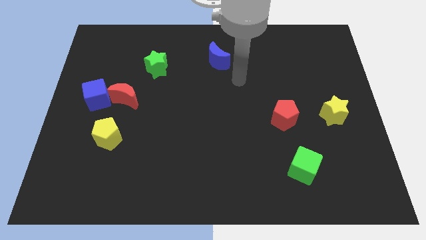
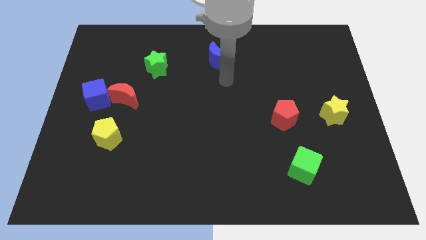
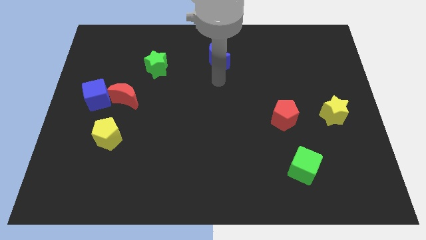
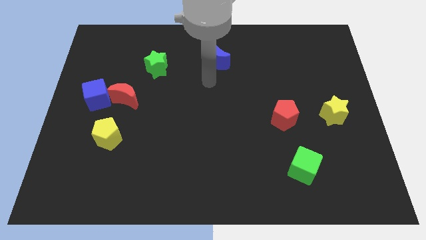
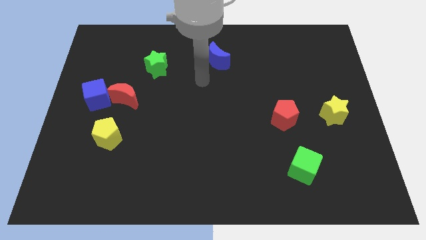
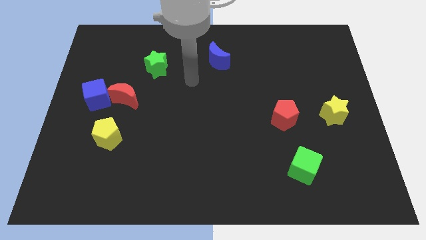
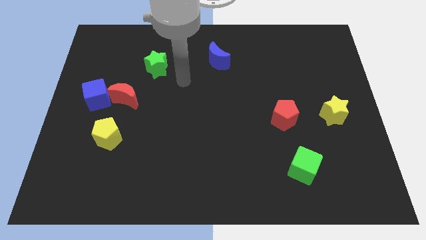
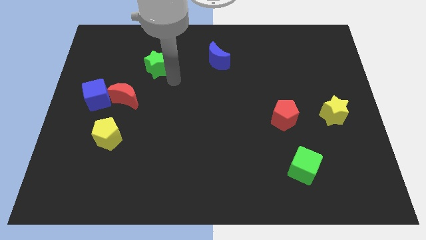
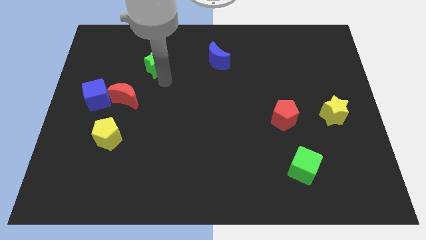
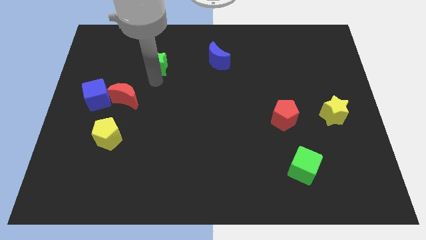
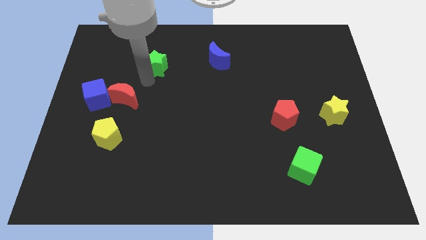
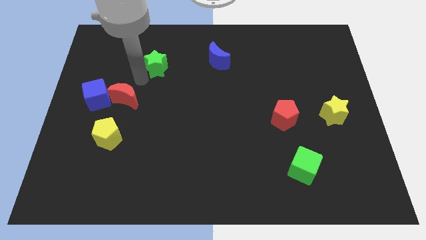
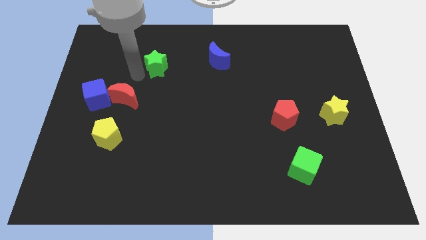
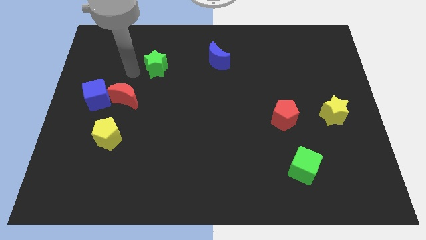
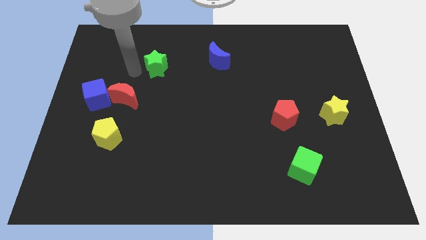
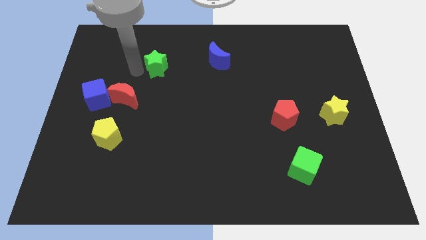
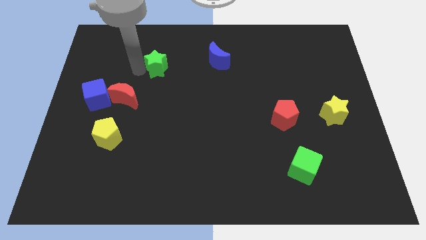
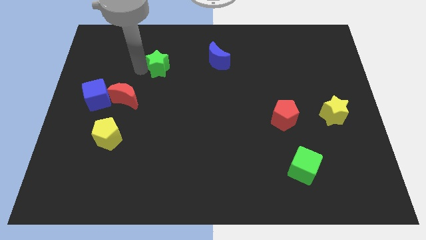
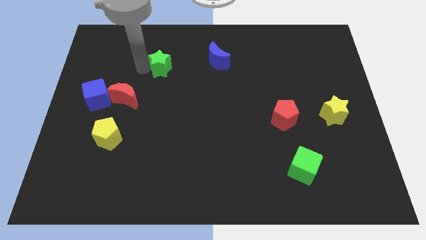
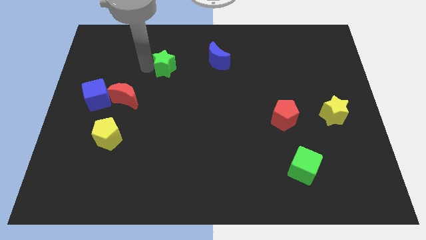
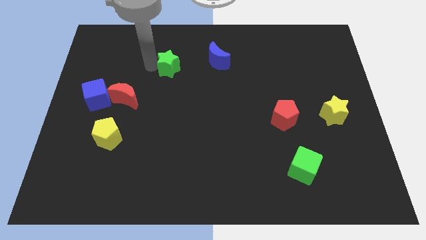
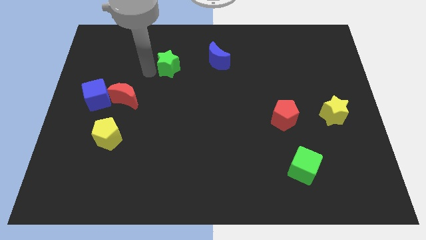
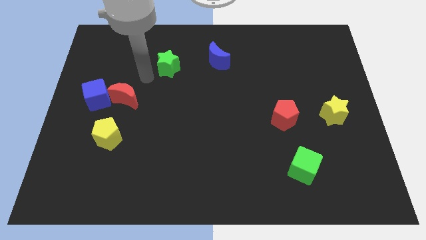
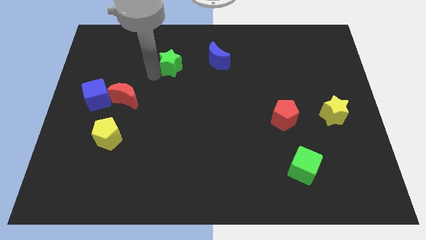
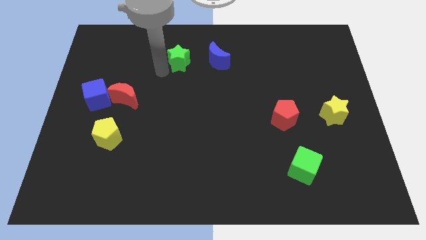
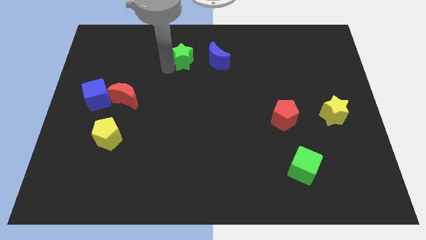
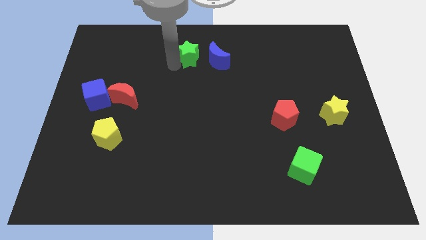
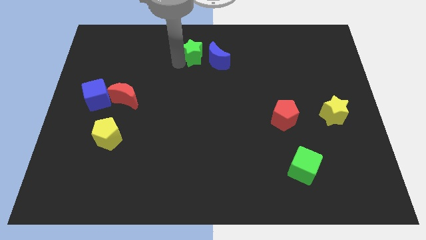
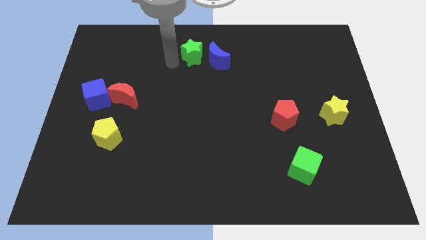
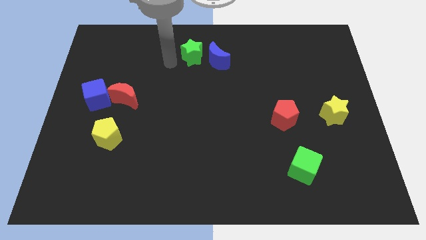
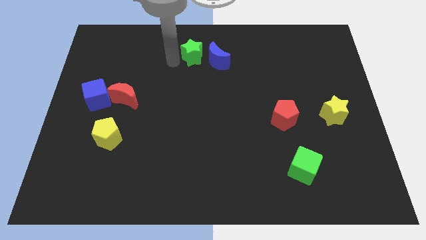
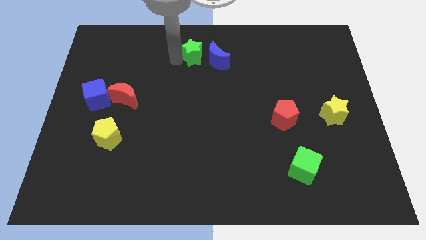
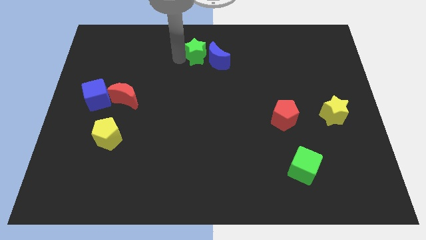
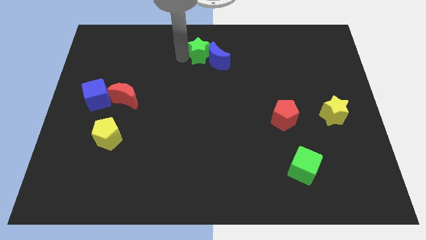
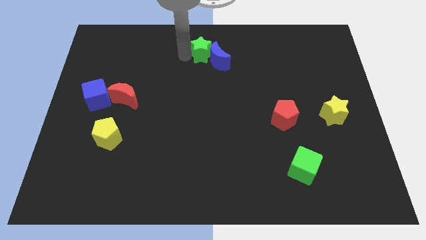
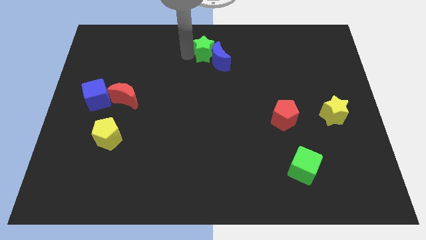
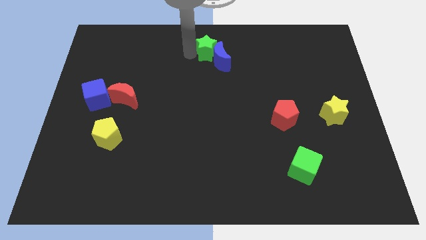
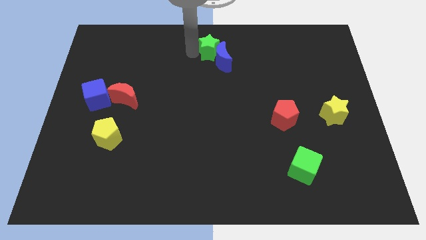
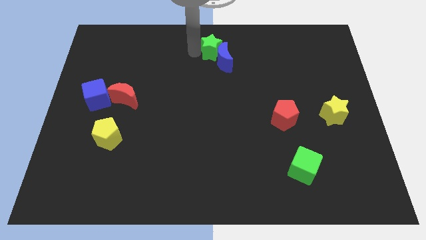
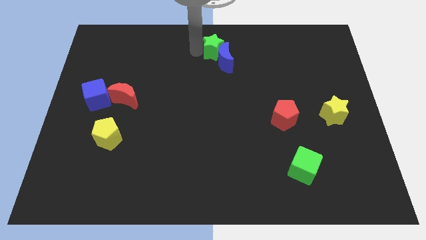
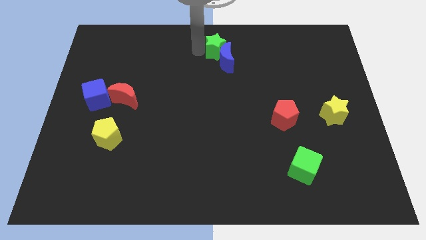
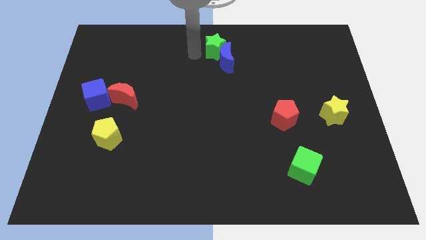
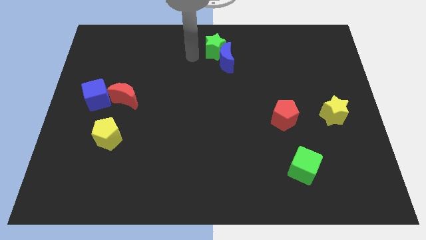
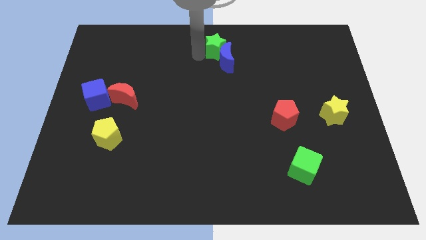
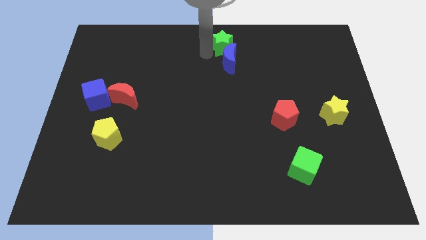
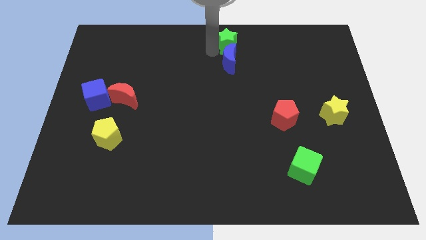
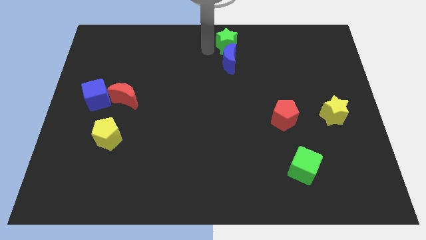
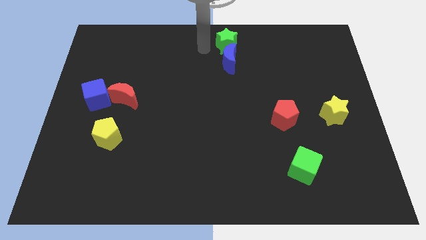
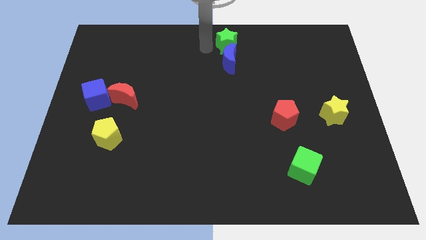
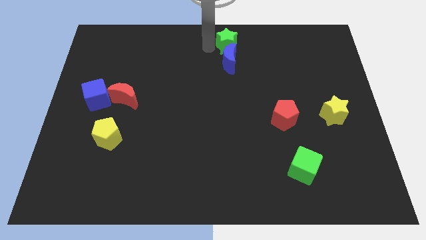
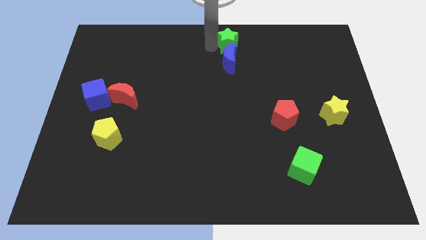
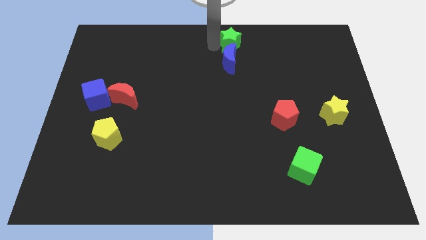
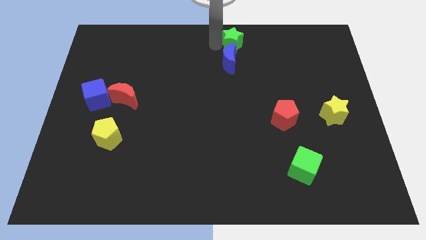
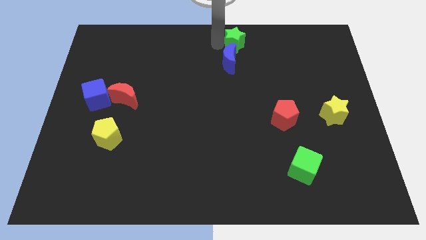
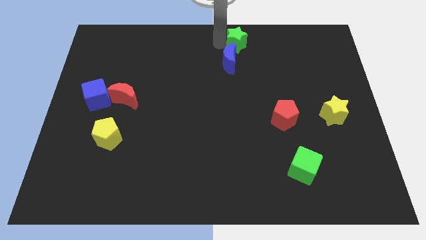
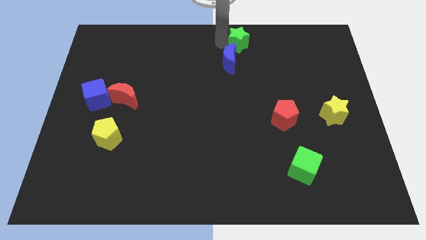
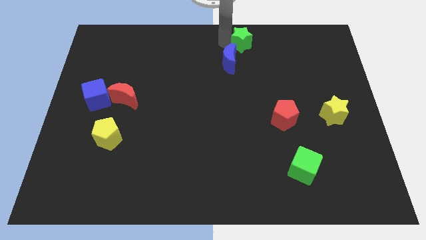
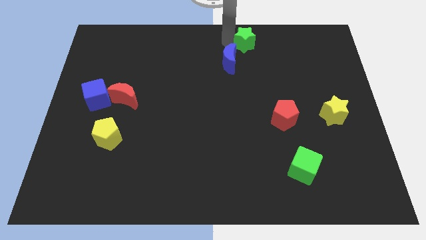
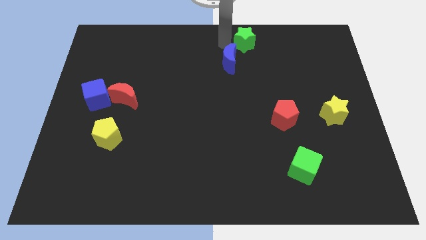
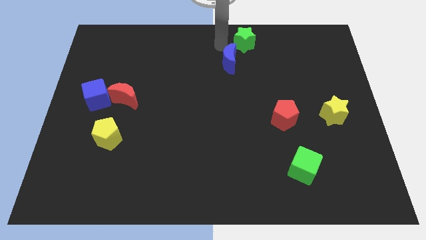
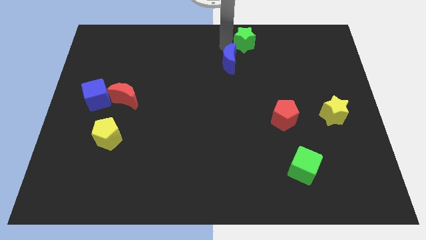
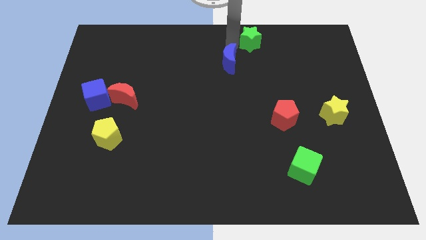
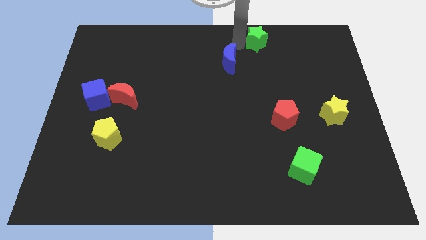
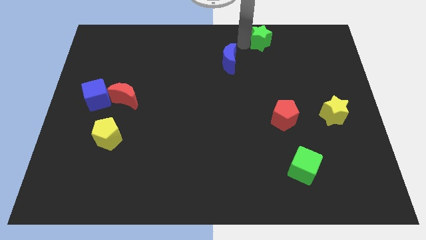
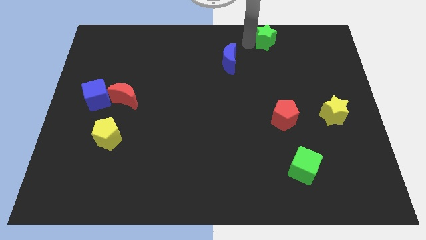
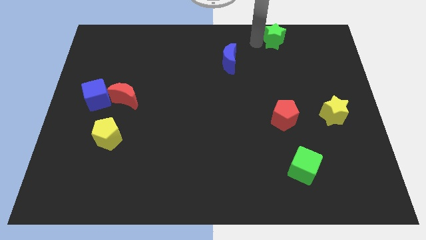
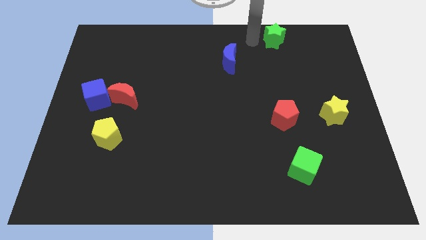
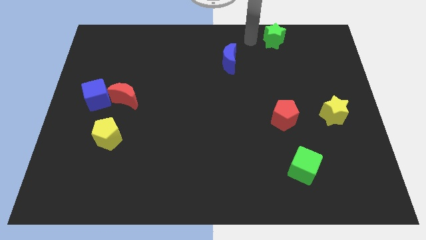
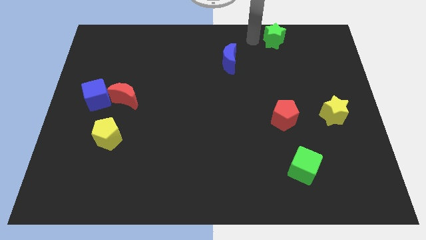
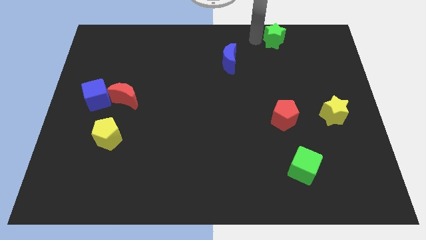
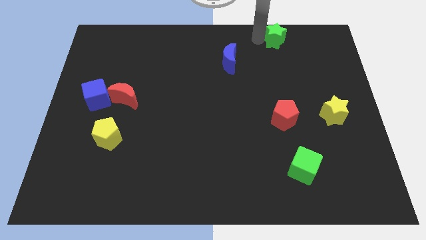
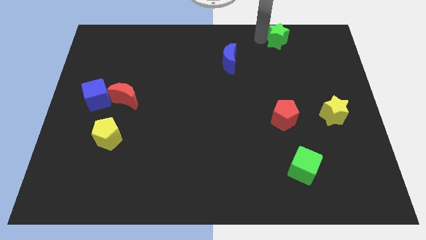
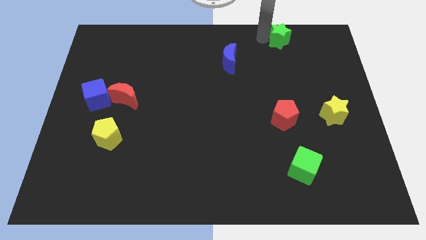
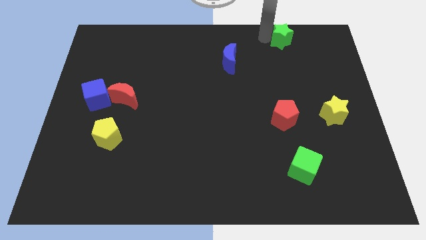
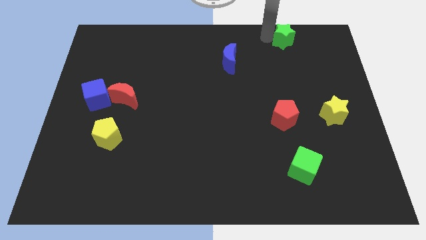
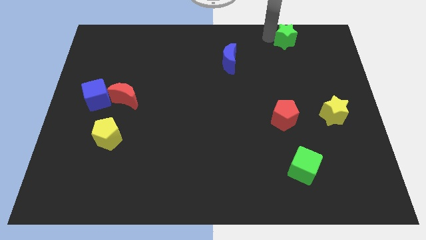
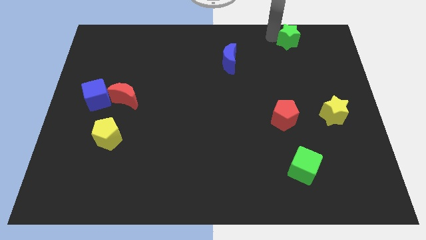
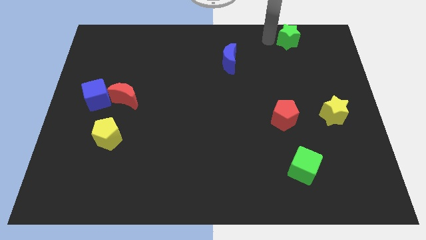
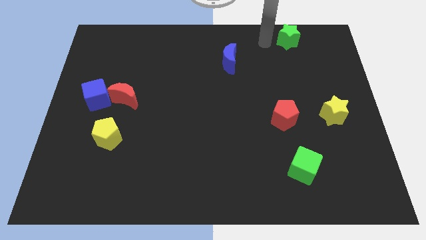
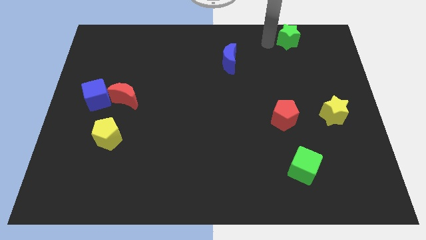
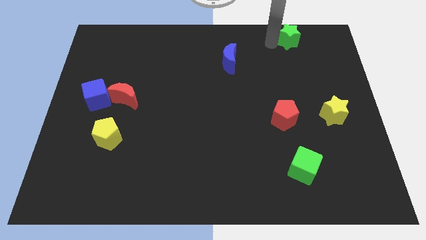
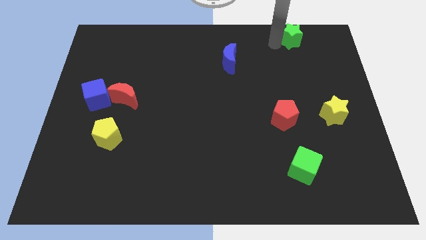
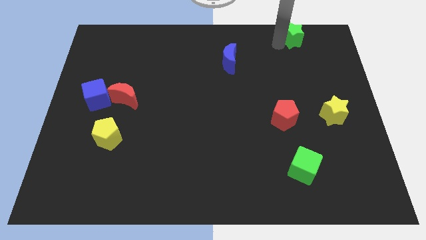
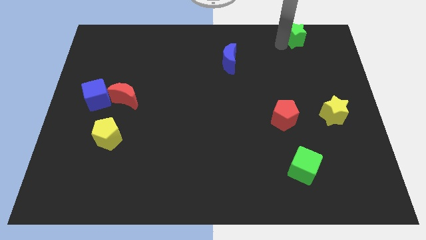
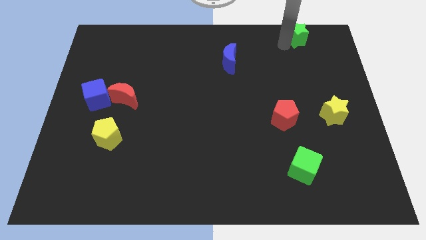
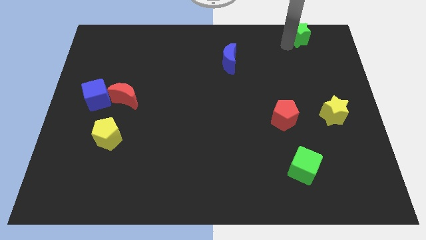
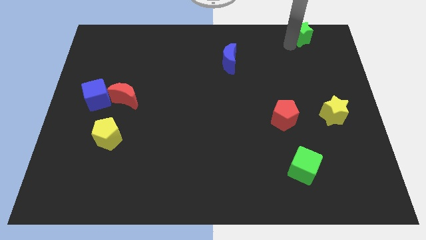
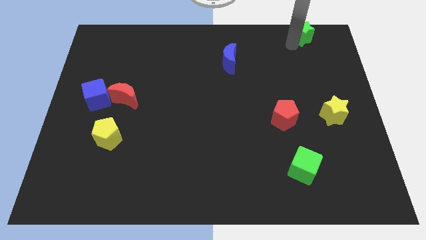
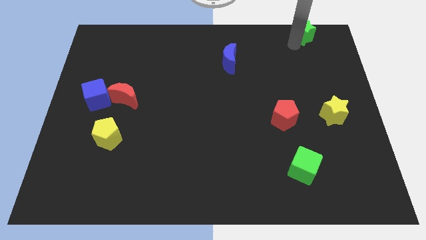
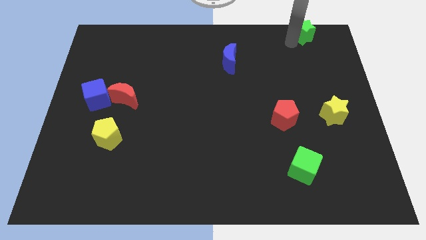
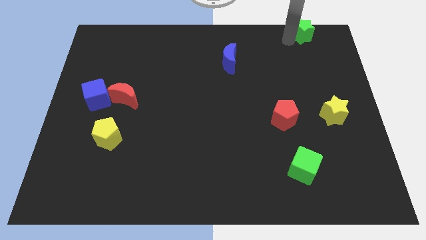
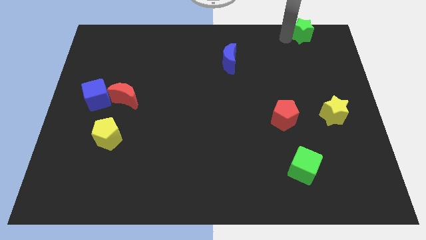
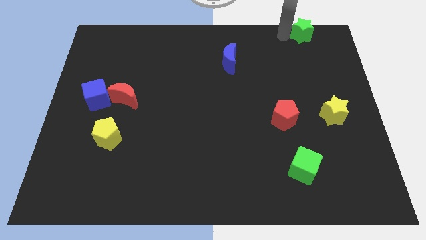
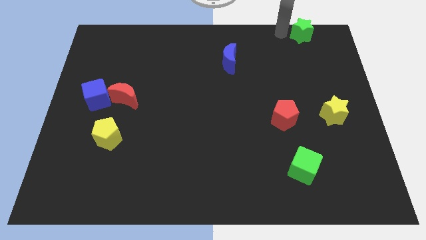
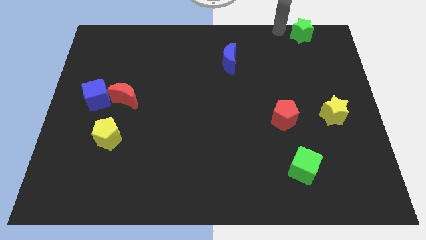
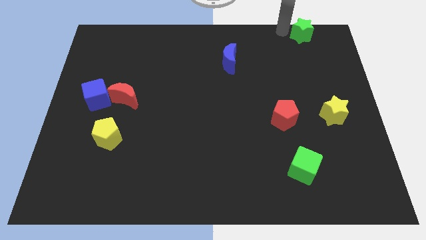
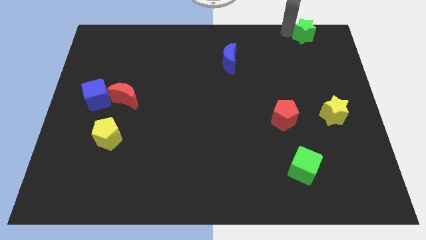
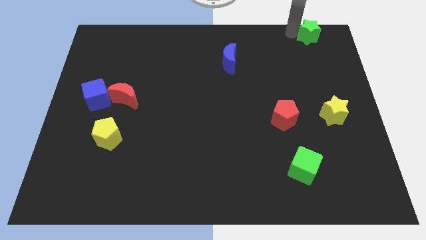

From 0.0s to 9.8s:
move the green star to the top right
